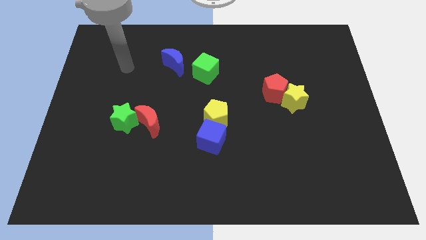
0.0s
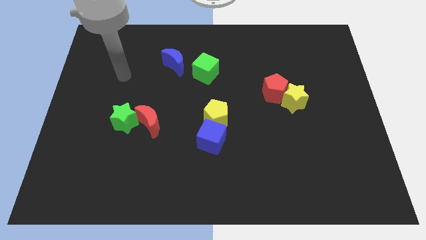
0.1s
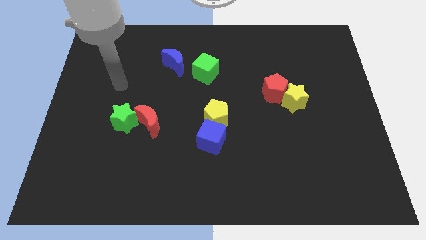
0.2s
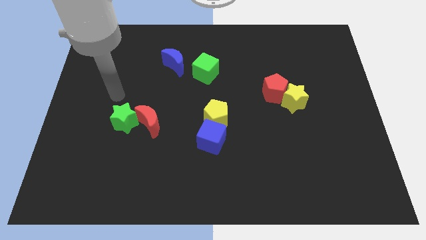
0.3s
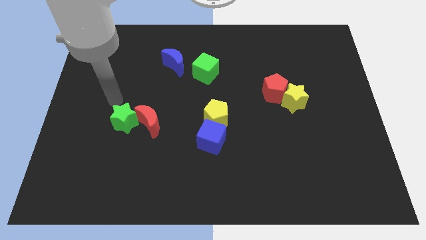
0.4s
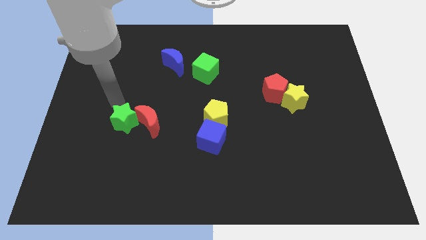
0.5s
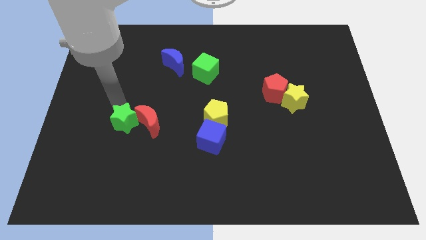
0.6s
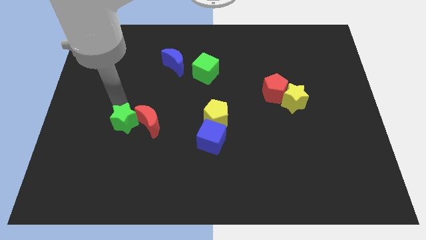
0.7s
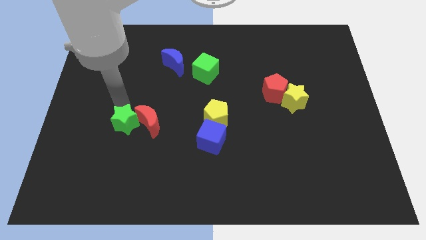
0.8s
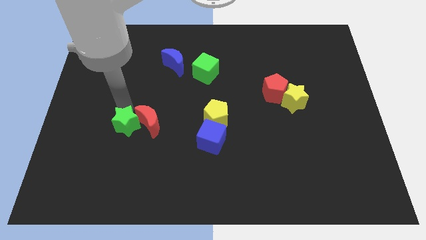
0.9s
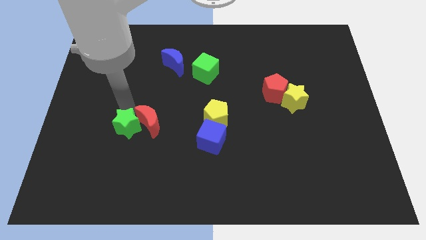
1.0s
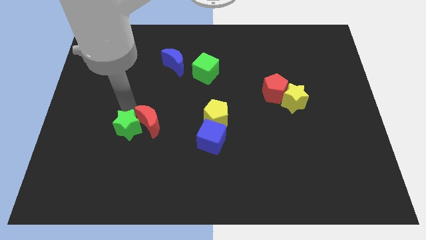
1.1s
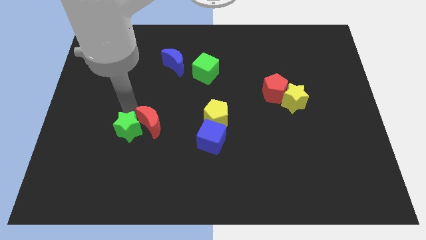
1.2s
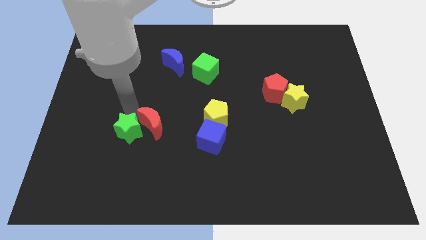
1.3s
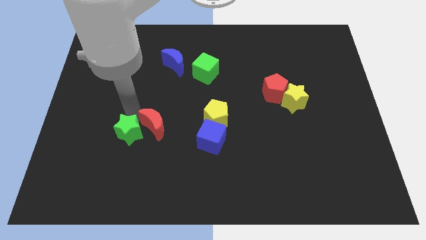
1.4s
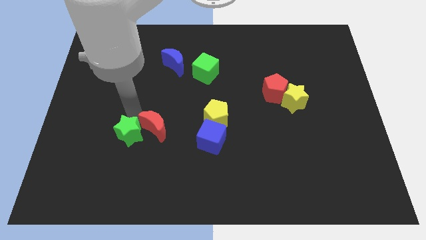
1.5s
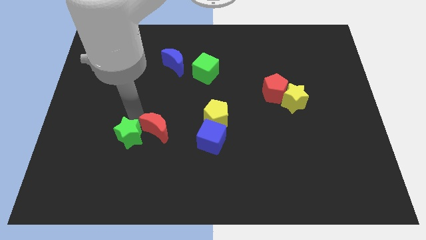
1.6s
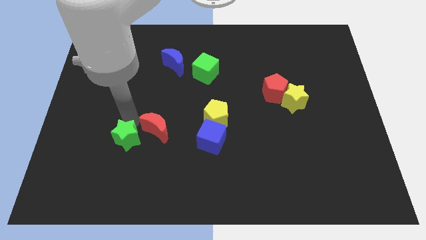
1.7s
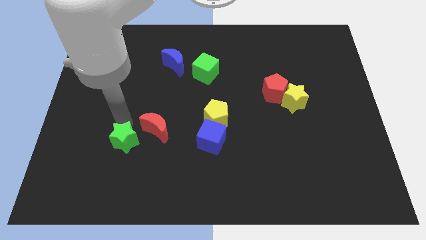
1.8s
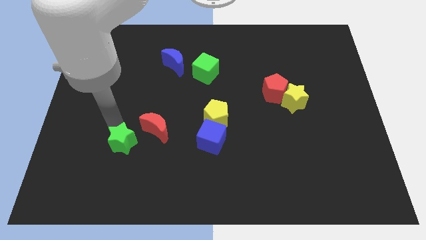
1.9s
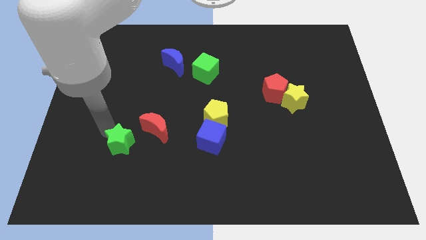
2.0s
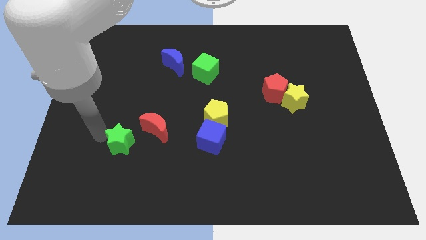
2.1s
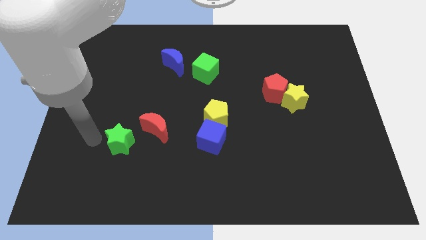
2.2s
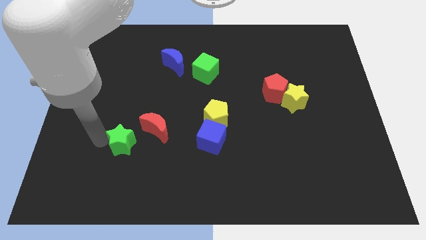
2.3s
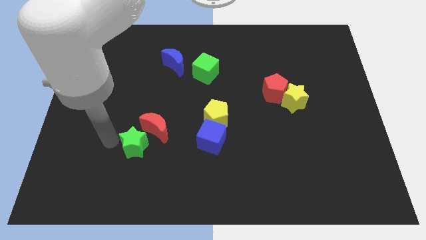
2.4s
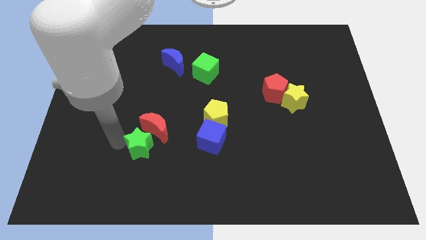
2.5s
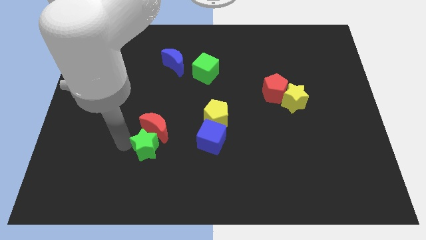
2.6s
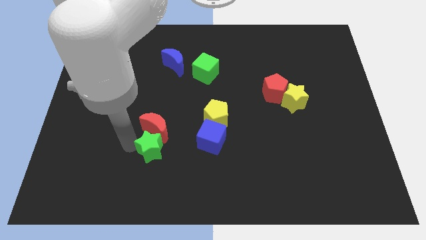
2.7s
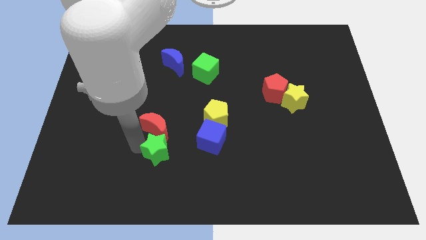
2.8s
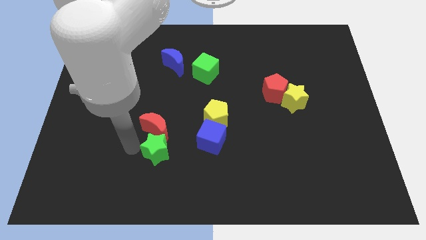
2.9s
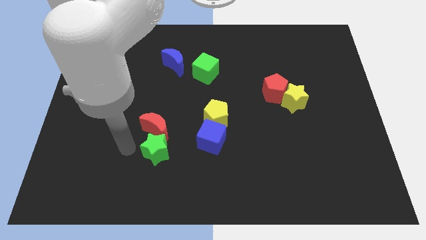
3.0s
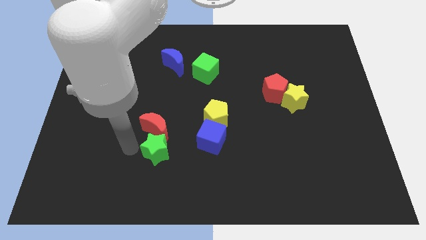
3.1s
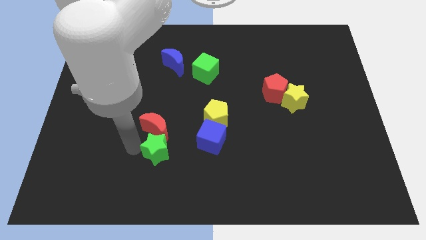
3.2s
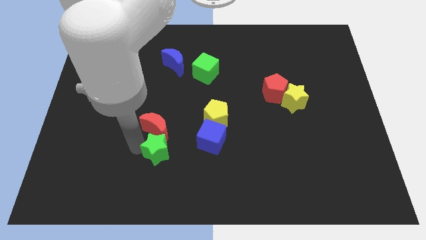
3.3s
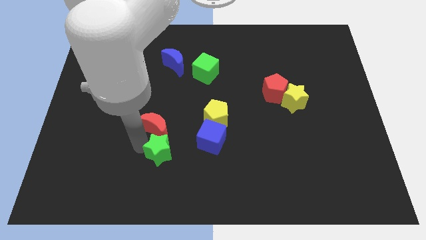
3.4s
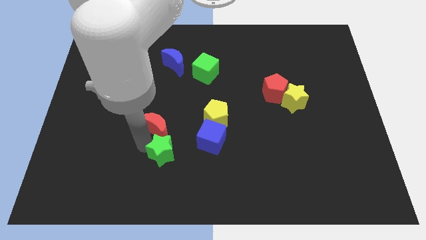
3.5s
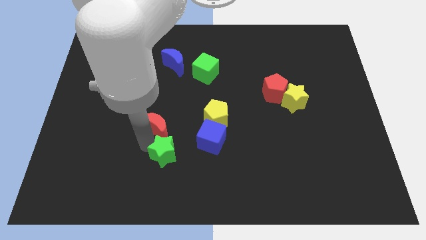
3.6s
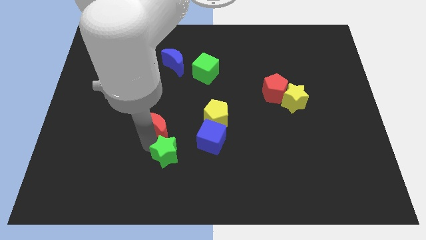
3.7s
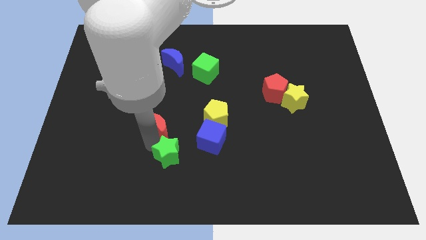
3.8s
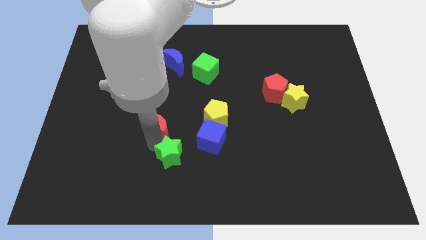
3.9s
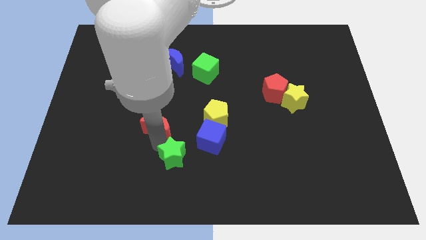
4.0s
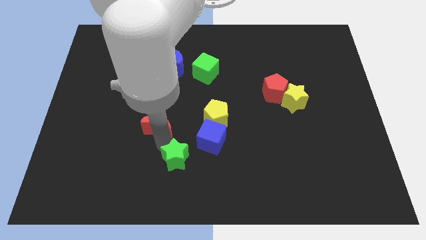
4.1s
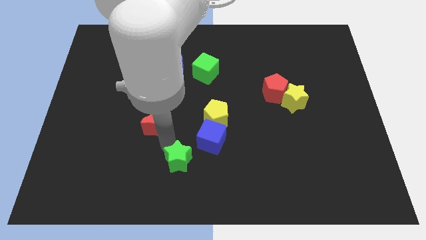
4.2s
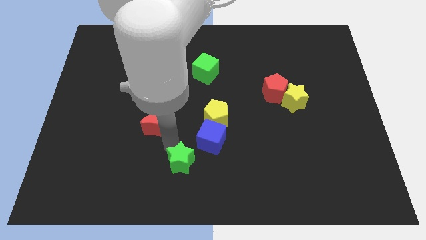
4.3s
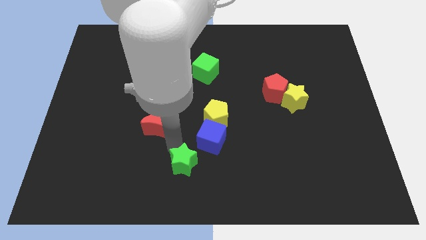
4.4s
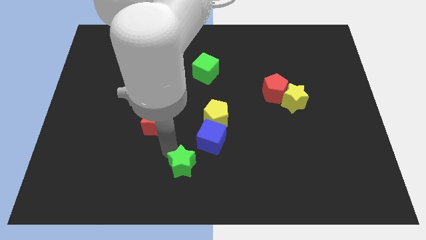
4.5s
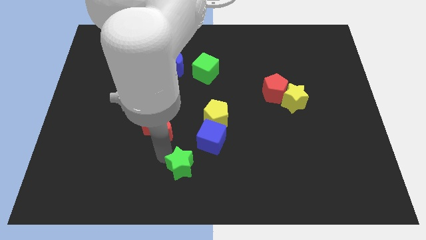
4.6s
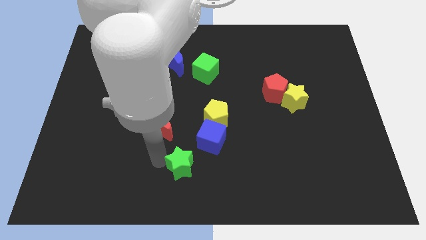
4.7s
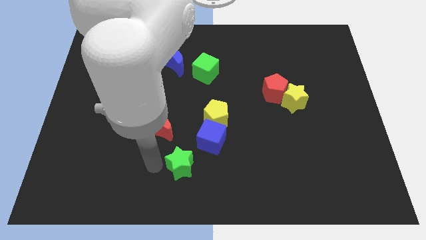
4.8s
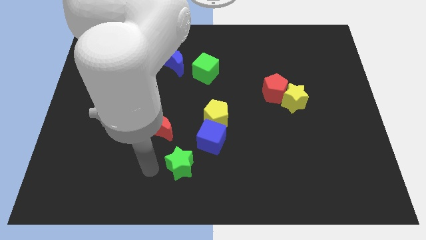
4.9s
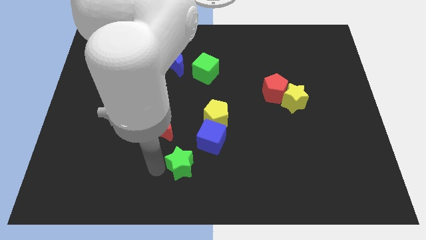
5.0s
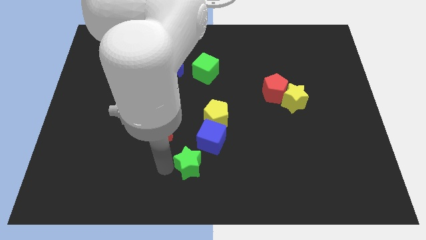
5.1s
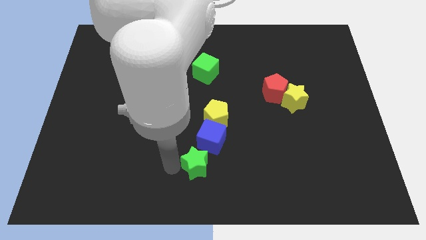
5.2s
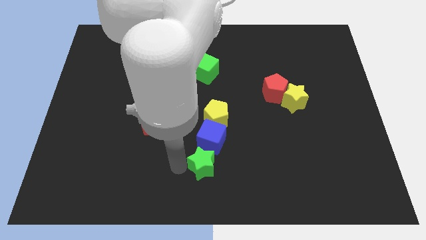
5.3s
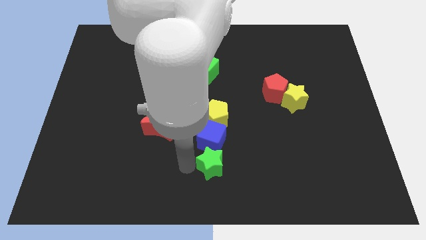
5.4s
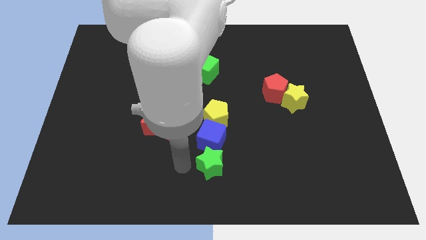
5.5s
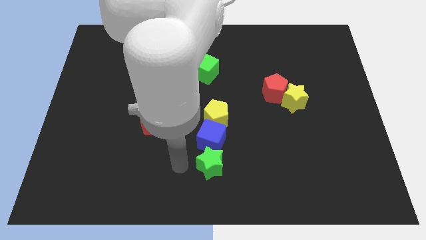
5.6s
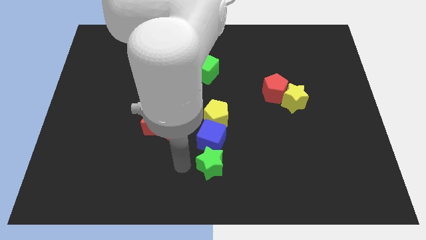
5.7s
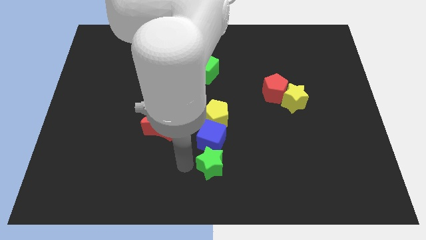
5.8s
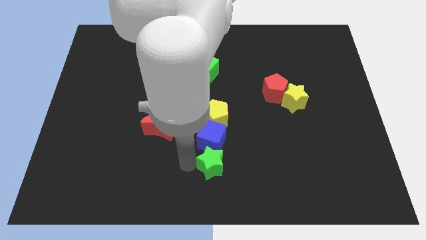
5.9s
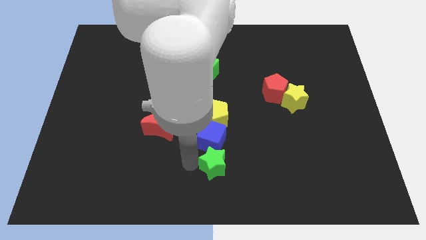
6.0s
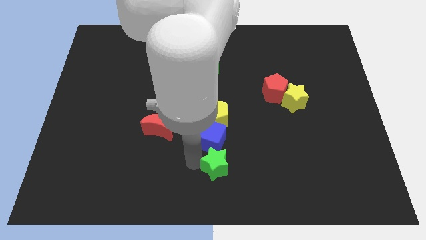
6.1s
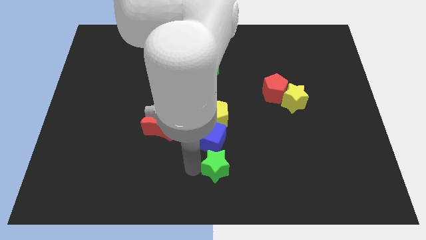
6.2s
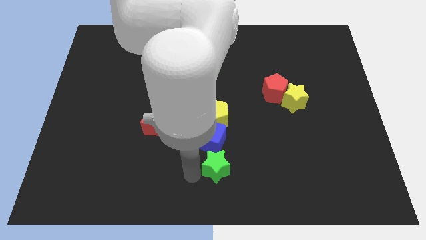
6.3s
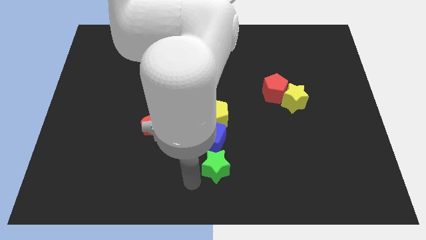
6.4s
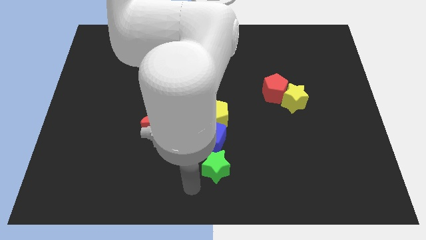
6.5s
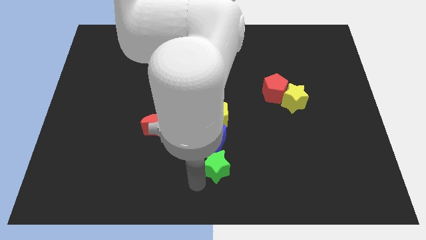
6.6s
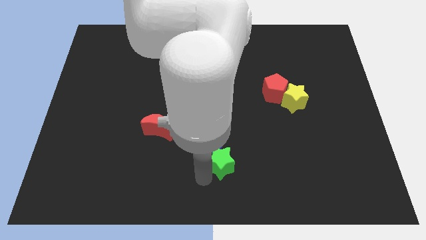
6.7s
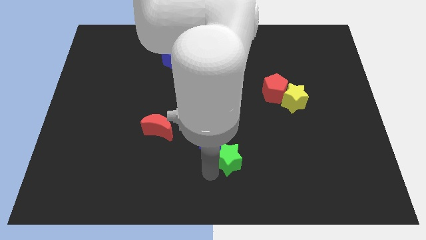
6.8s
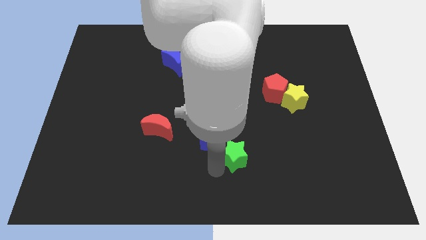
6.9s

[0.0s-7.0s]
slide the green star right

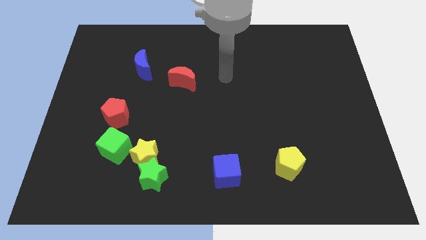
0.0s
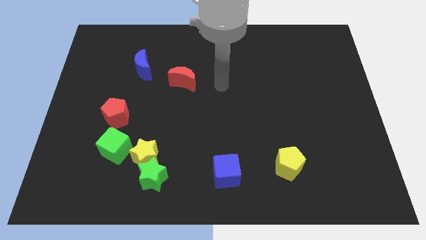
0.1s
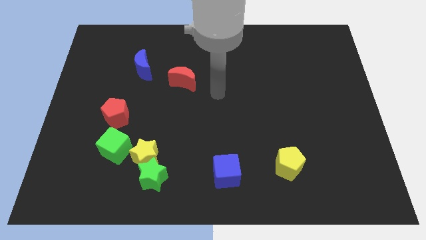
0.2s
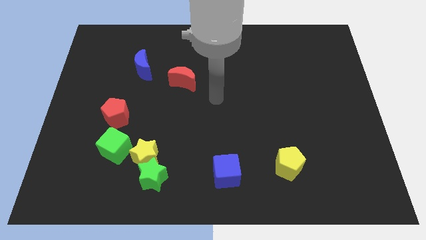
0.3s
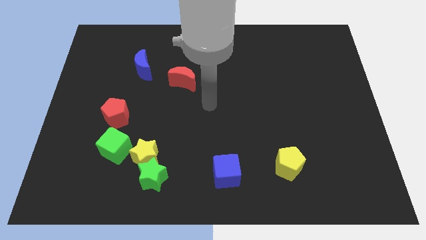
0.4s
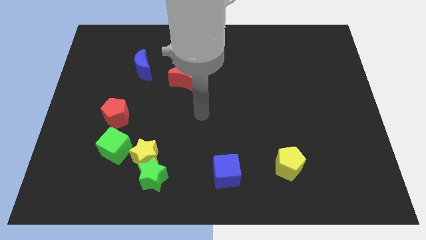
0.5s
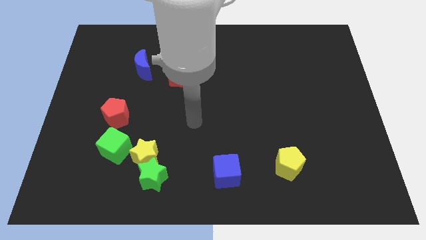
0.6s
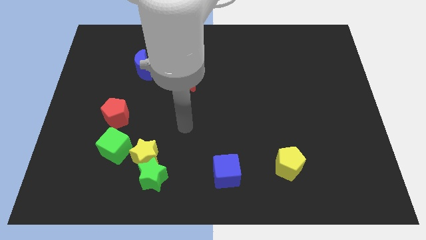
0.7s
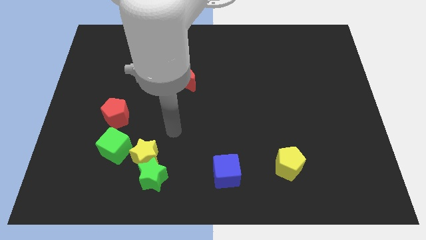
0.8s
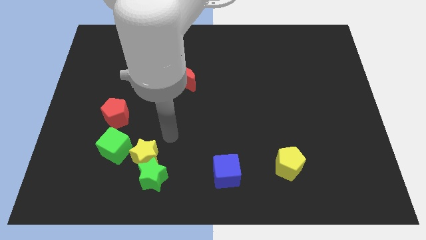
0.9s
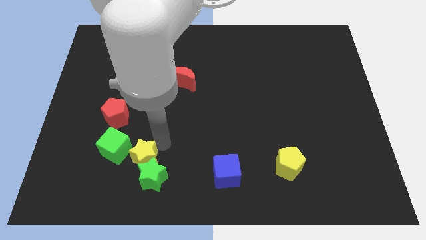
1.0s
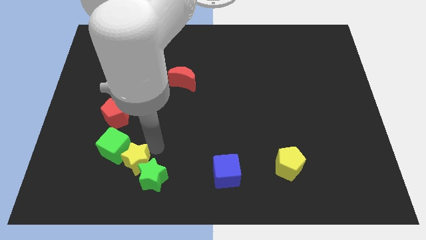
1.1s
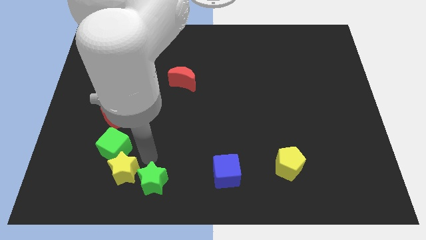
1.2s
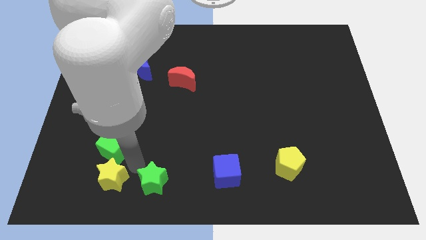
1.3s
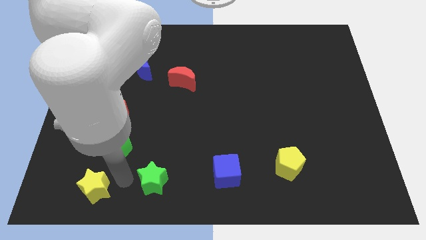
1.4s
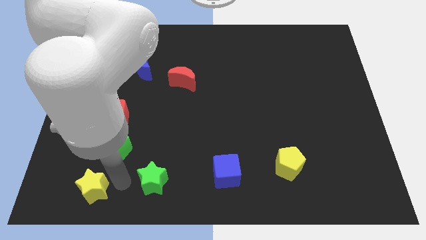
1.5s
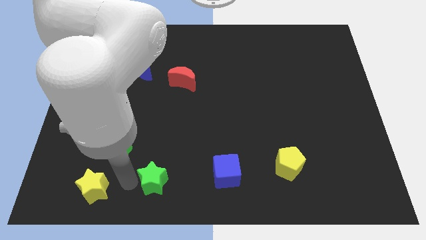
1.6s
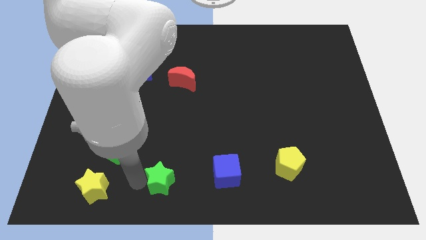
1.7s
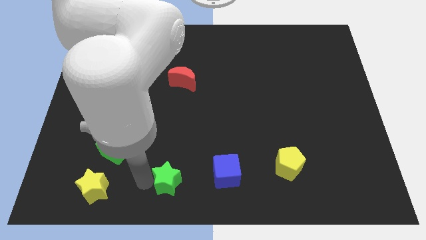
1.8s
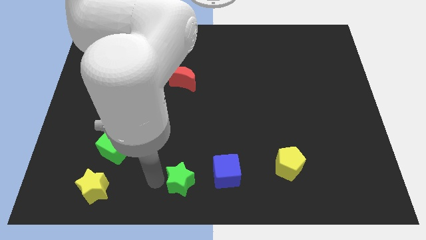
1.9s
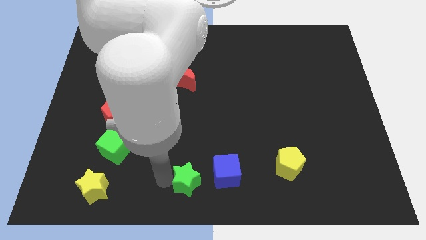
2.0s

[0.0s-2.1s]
slightly slide the green star to the right
